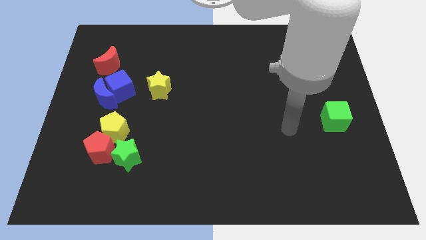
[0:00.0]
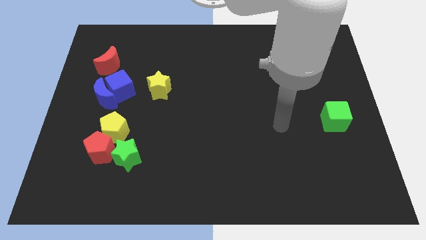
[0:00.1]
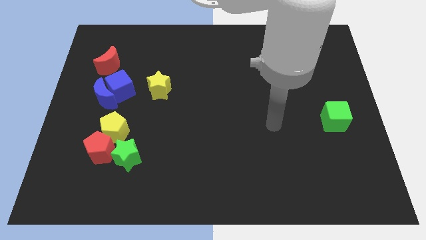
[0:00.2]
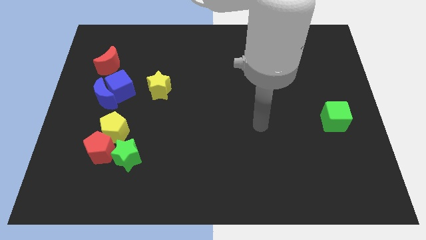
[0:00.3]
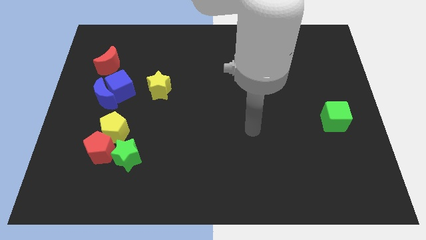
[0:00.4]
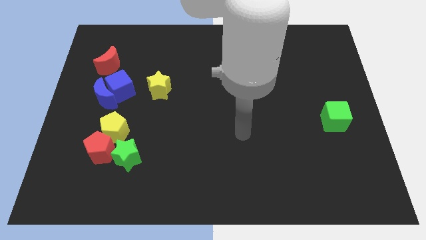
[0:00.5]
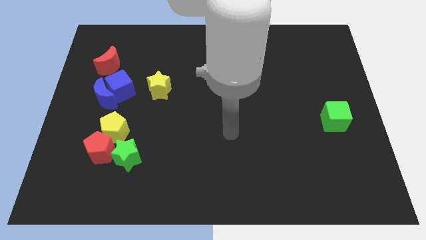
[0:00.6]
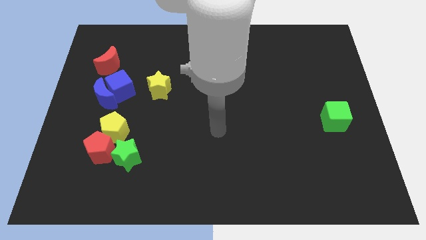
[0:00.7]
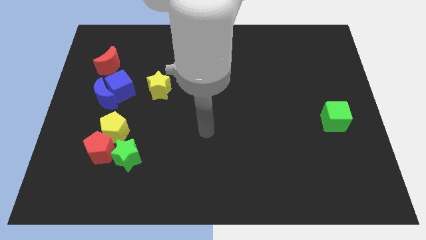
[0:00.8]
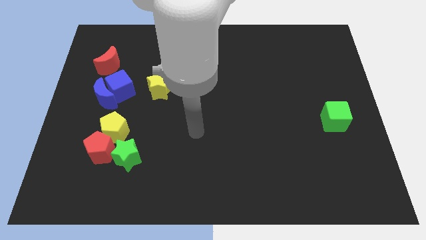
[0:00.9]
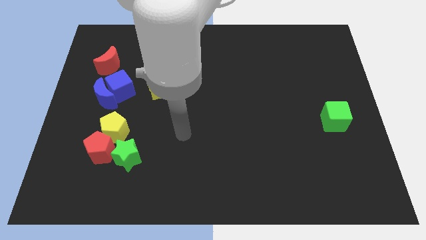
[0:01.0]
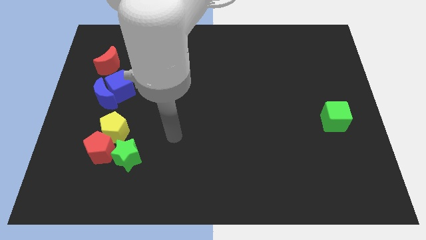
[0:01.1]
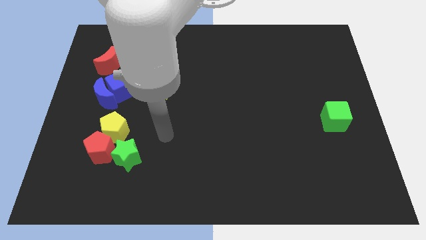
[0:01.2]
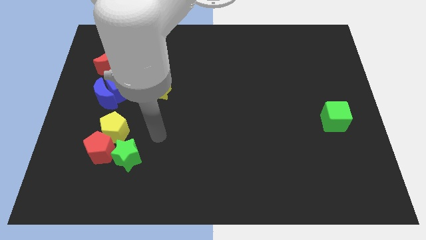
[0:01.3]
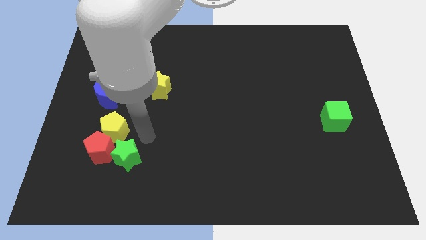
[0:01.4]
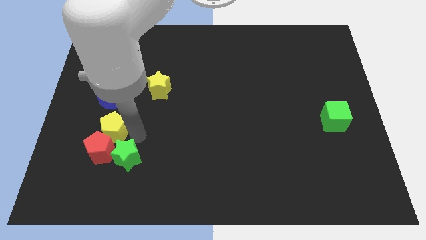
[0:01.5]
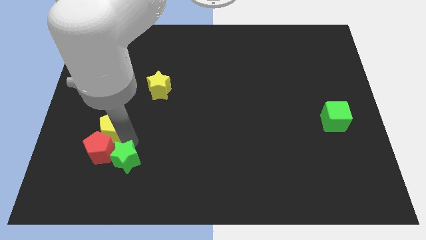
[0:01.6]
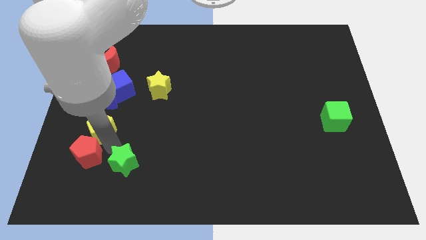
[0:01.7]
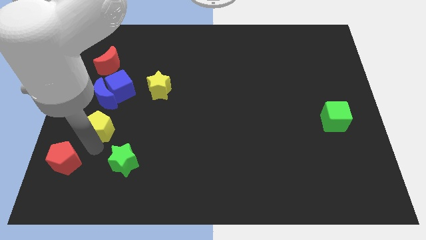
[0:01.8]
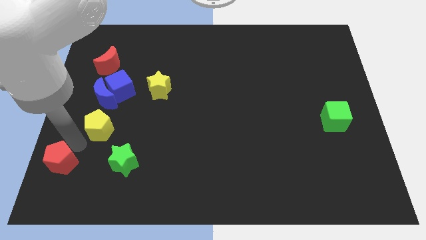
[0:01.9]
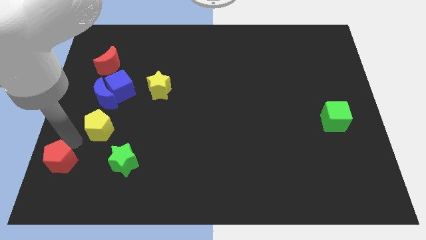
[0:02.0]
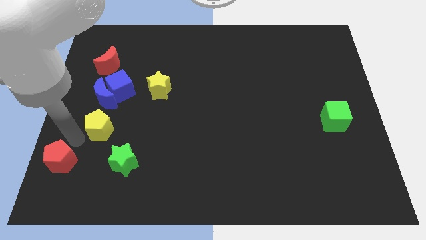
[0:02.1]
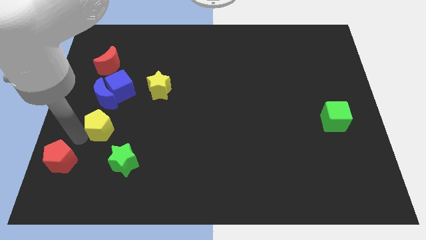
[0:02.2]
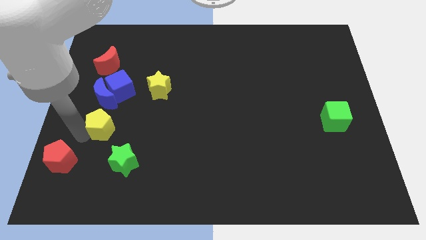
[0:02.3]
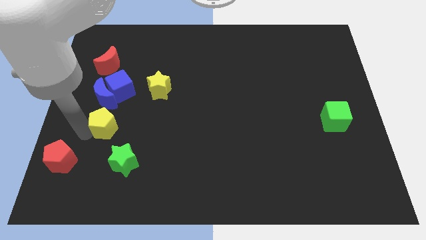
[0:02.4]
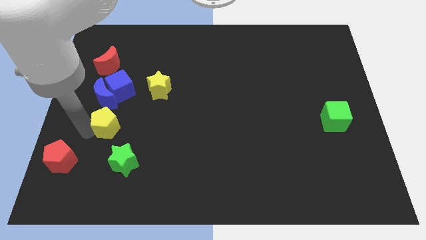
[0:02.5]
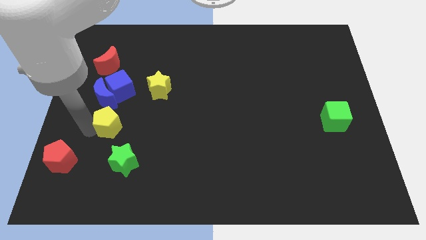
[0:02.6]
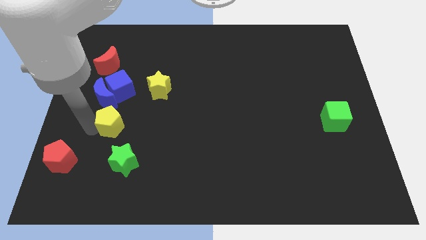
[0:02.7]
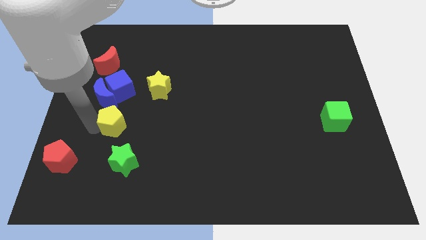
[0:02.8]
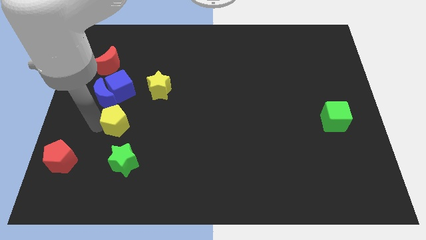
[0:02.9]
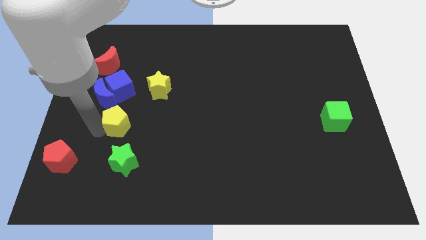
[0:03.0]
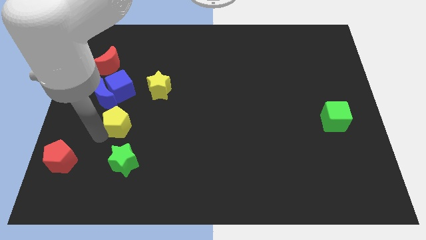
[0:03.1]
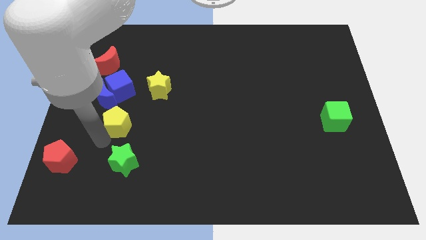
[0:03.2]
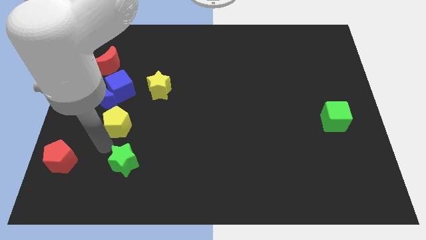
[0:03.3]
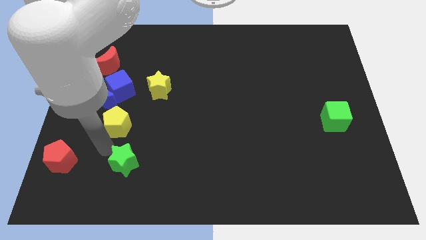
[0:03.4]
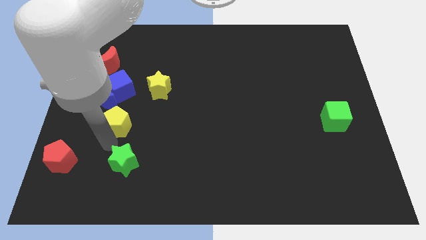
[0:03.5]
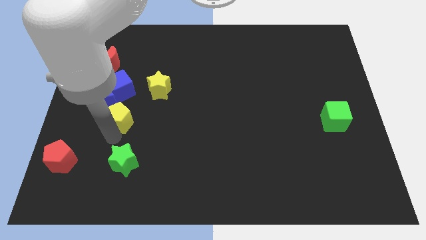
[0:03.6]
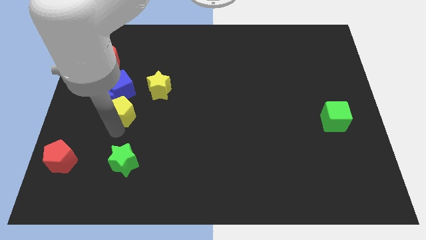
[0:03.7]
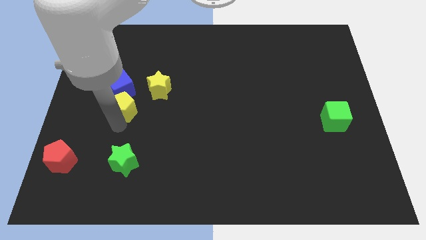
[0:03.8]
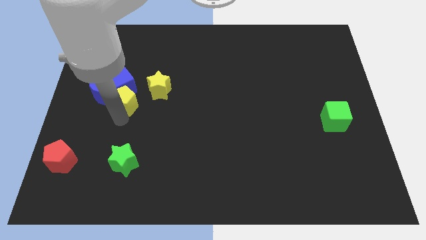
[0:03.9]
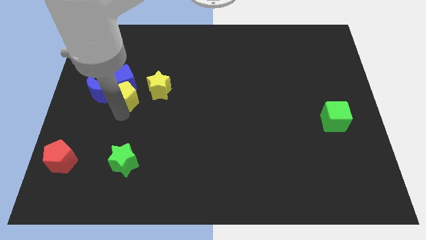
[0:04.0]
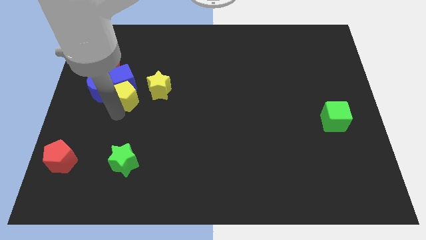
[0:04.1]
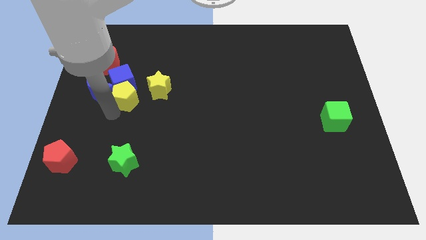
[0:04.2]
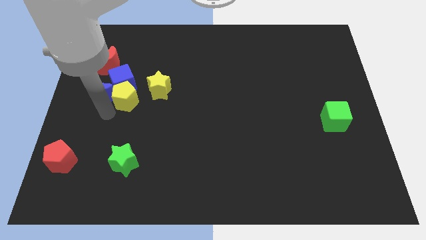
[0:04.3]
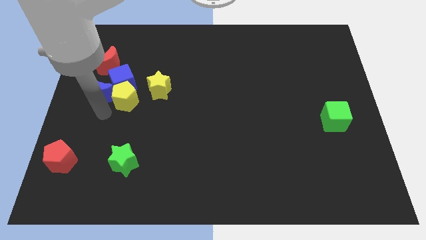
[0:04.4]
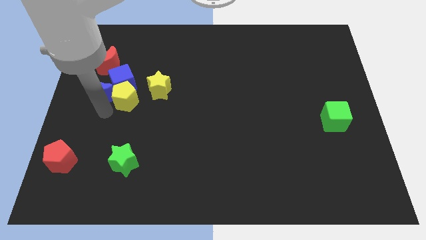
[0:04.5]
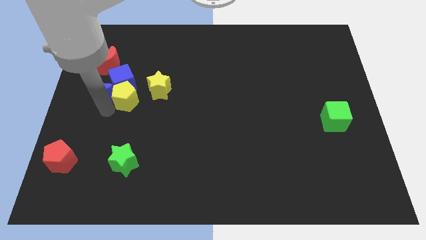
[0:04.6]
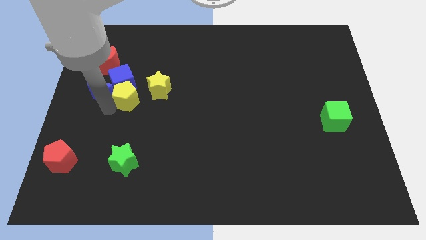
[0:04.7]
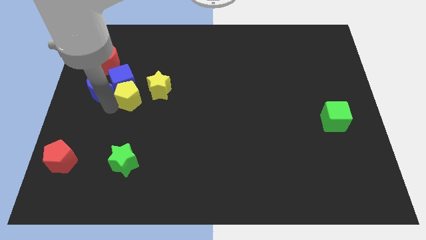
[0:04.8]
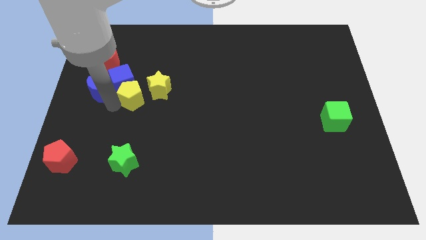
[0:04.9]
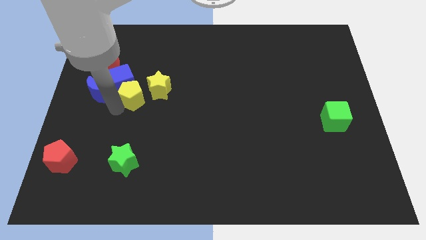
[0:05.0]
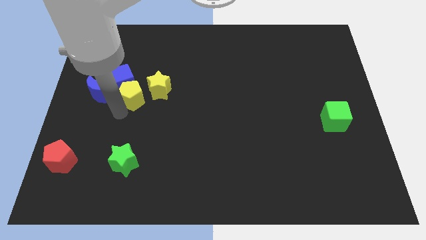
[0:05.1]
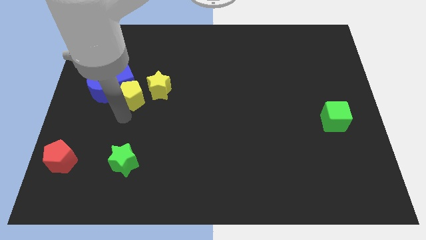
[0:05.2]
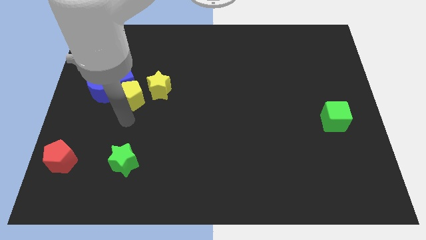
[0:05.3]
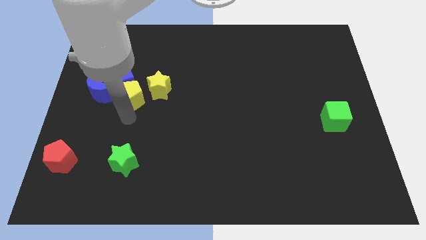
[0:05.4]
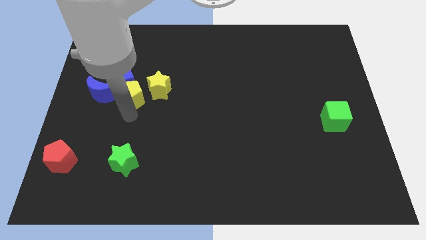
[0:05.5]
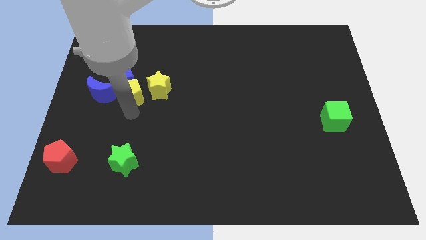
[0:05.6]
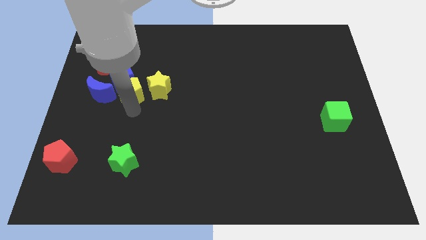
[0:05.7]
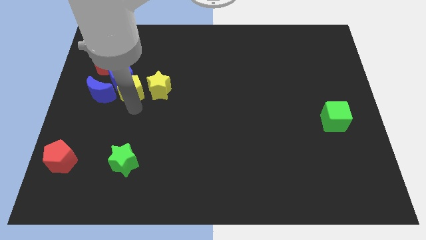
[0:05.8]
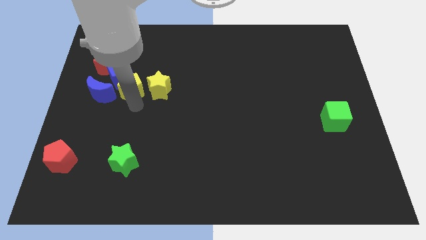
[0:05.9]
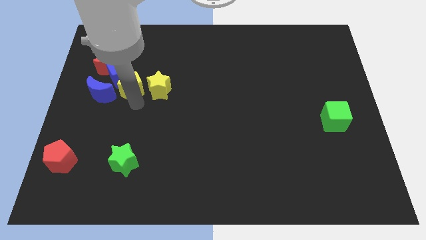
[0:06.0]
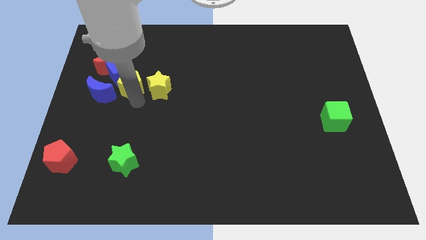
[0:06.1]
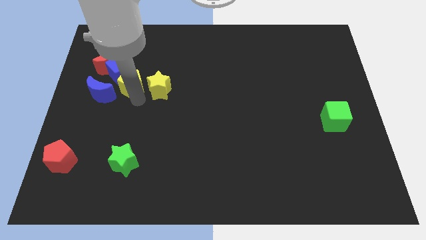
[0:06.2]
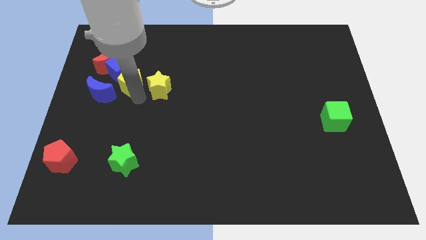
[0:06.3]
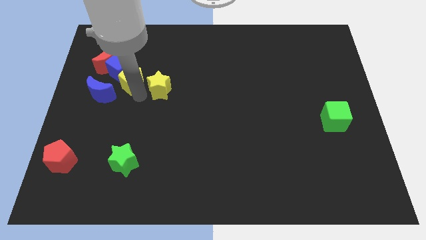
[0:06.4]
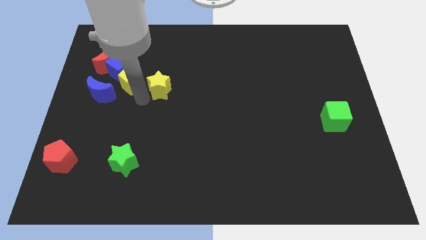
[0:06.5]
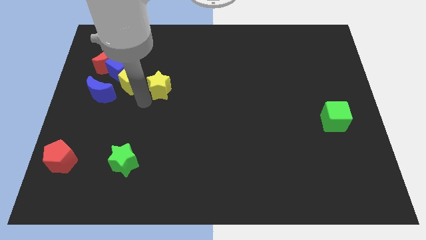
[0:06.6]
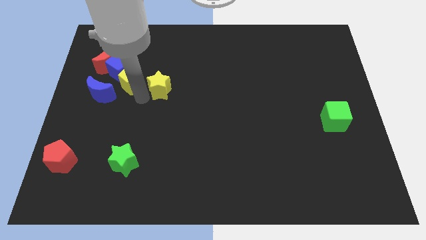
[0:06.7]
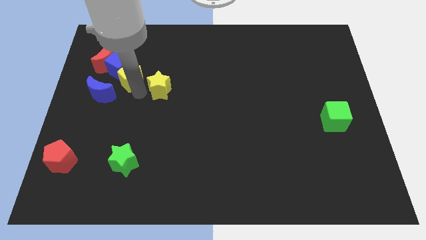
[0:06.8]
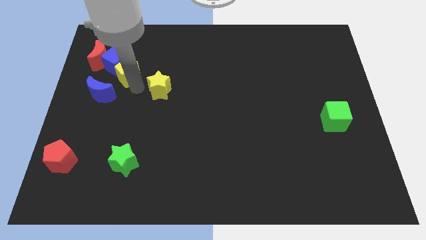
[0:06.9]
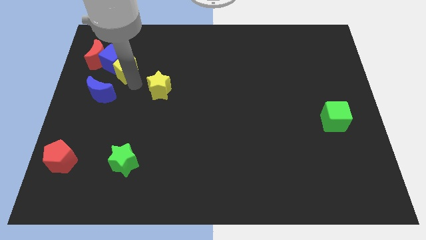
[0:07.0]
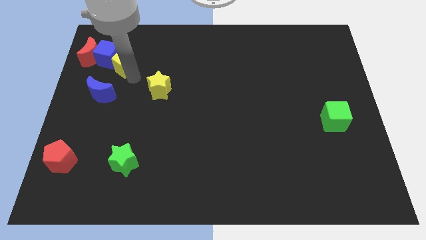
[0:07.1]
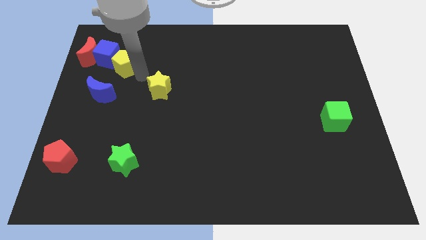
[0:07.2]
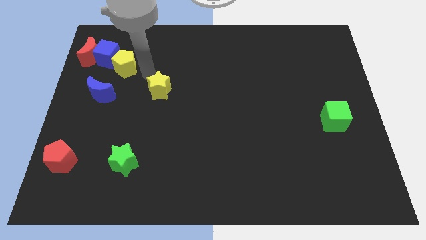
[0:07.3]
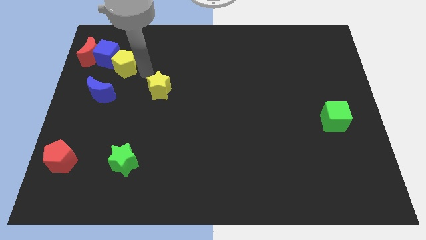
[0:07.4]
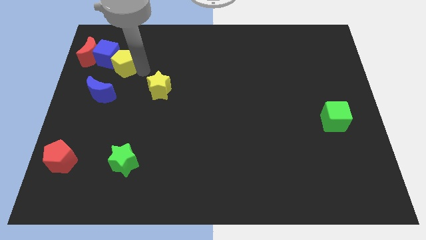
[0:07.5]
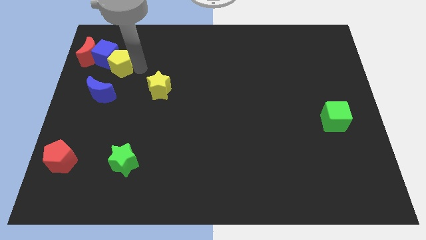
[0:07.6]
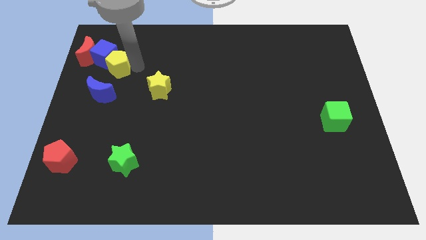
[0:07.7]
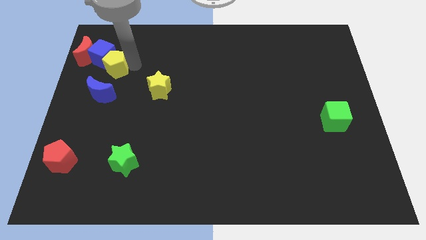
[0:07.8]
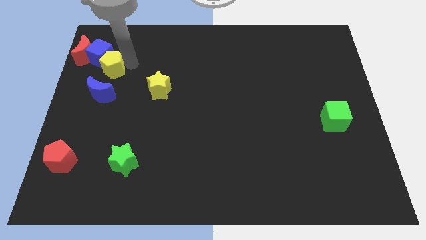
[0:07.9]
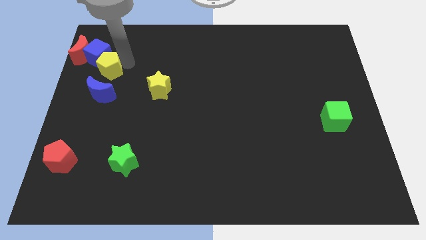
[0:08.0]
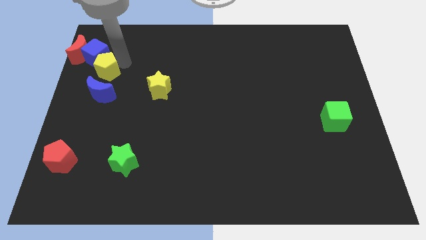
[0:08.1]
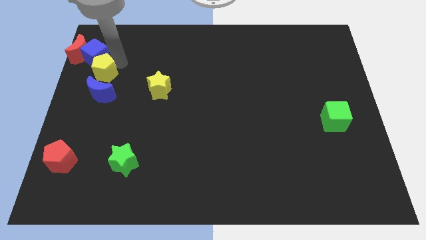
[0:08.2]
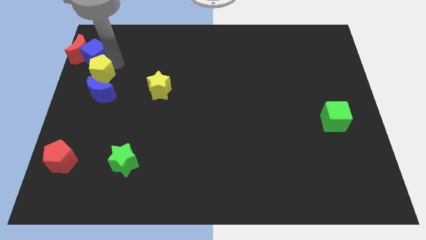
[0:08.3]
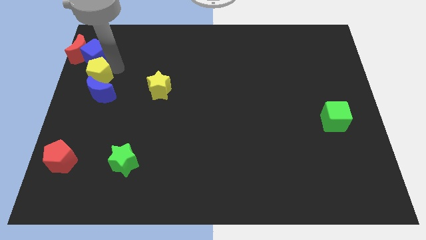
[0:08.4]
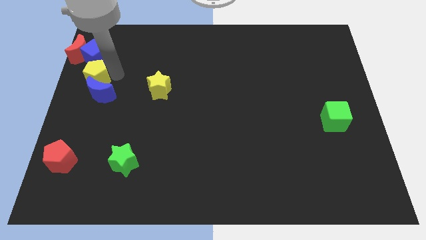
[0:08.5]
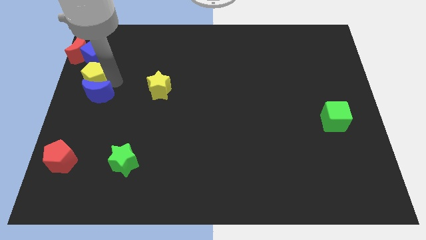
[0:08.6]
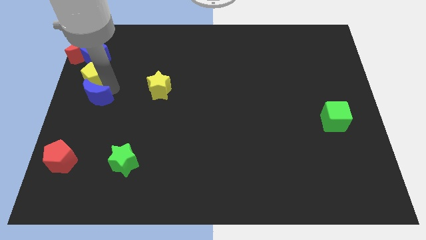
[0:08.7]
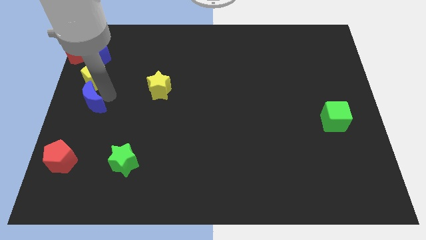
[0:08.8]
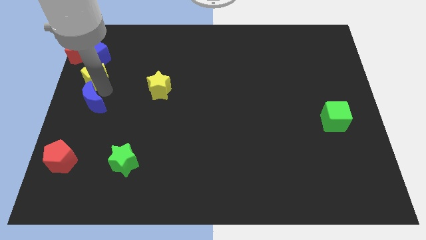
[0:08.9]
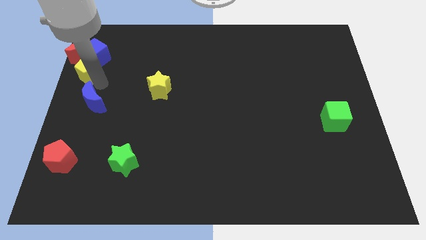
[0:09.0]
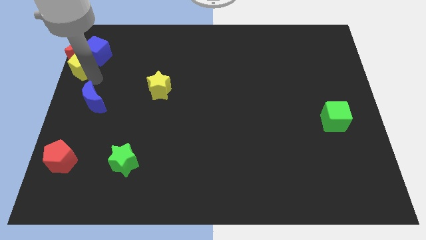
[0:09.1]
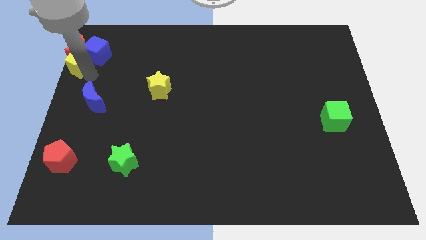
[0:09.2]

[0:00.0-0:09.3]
slide the yellow pentagon towards the red moon
